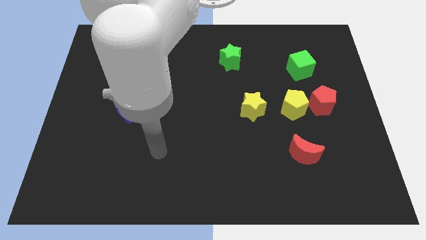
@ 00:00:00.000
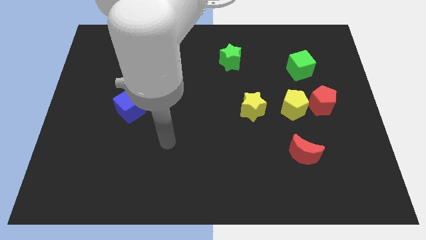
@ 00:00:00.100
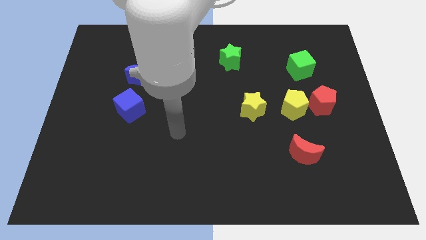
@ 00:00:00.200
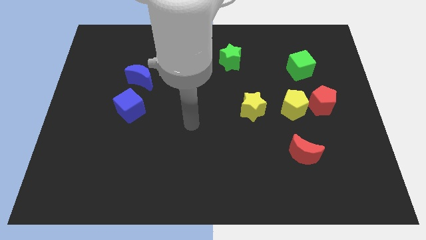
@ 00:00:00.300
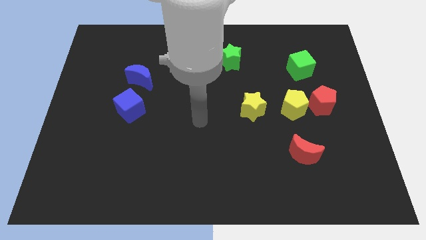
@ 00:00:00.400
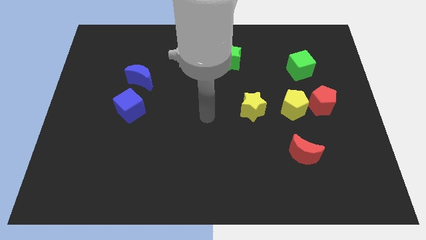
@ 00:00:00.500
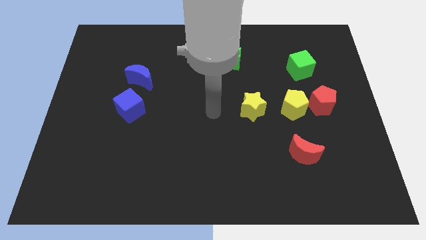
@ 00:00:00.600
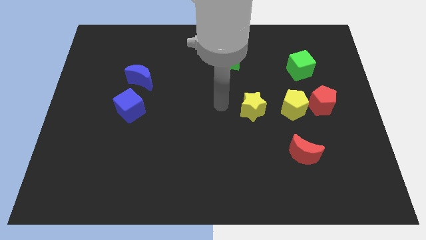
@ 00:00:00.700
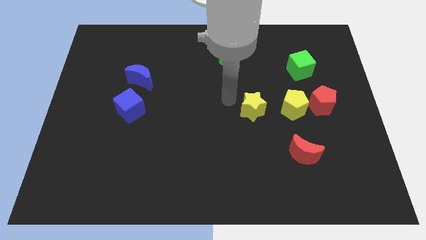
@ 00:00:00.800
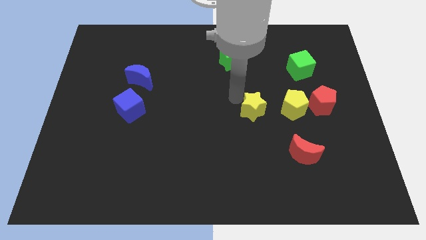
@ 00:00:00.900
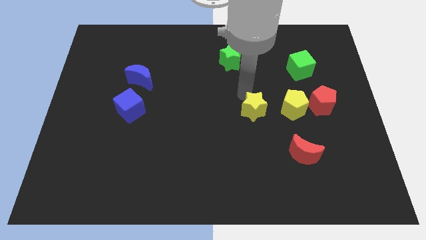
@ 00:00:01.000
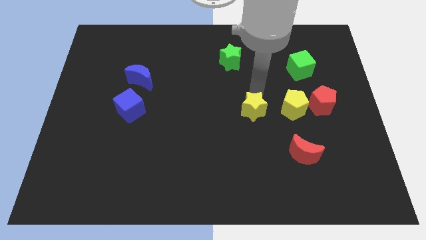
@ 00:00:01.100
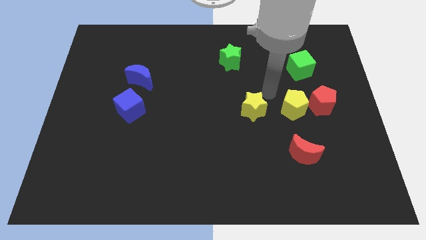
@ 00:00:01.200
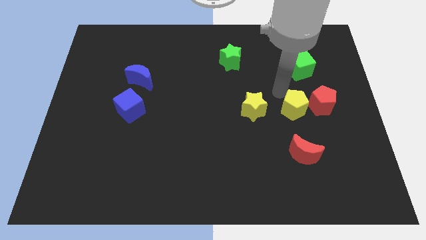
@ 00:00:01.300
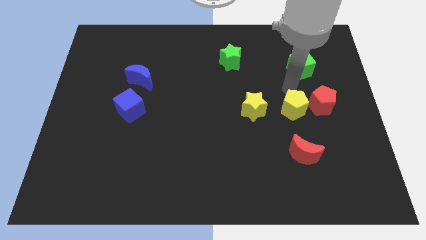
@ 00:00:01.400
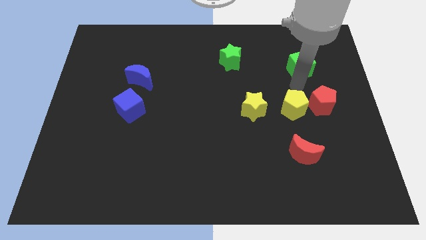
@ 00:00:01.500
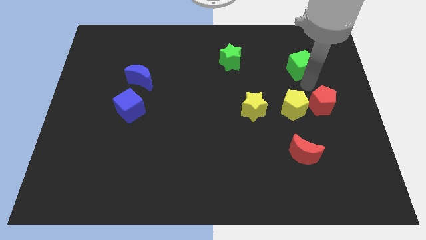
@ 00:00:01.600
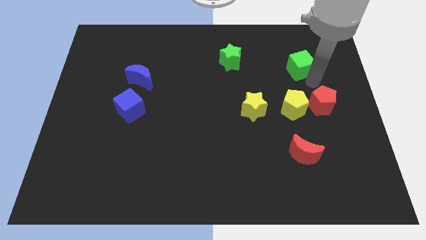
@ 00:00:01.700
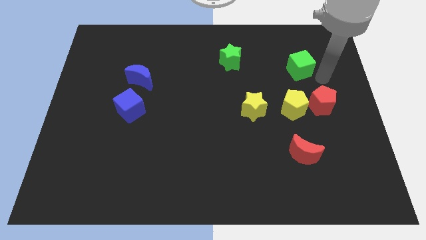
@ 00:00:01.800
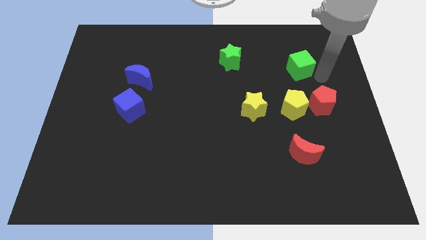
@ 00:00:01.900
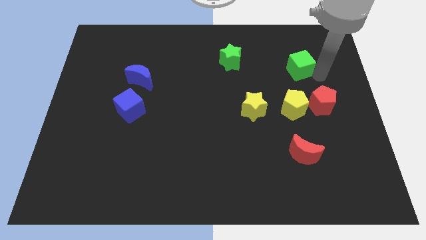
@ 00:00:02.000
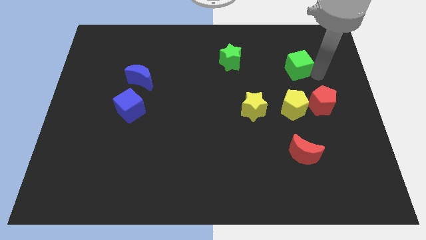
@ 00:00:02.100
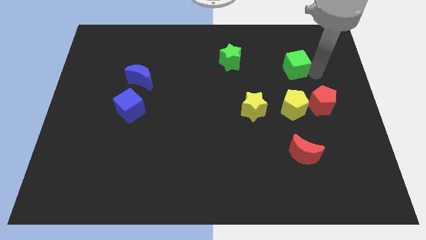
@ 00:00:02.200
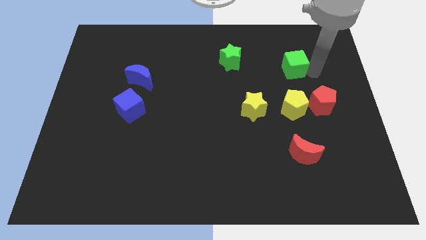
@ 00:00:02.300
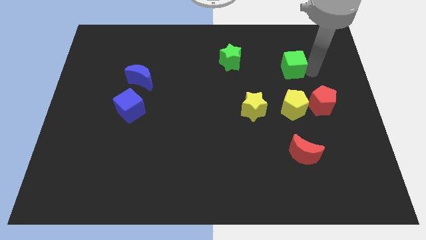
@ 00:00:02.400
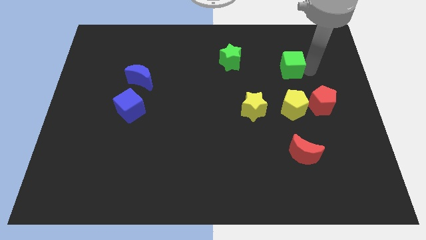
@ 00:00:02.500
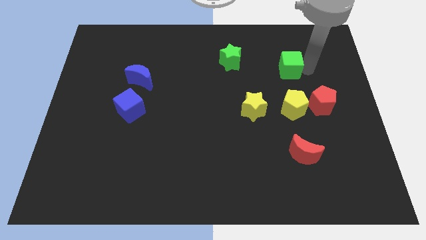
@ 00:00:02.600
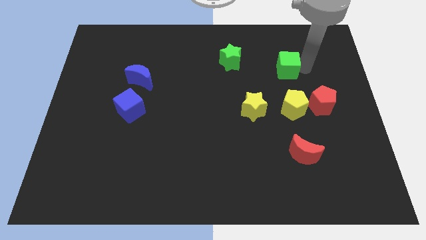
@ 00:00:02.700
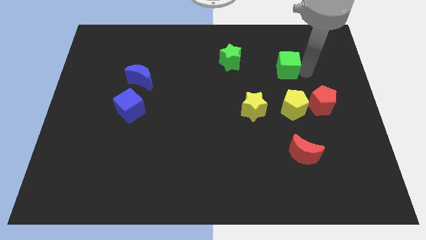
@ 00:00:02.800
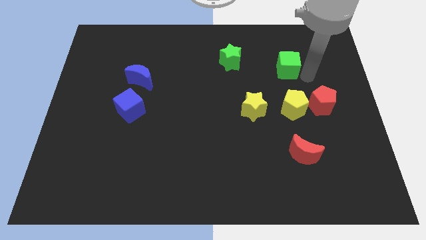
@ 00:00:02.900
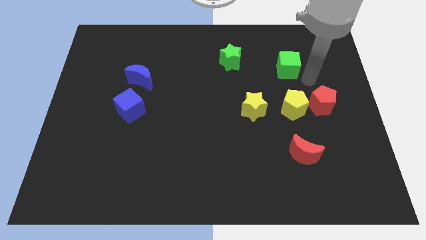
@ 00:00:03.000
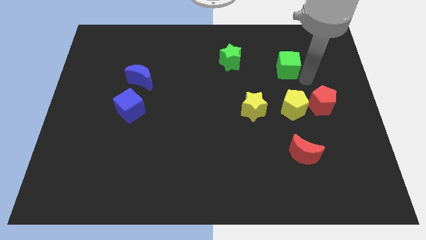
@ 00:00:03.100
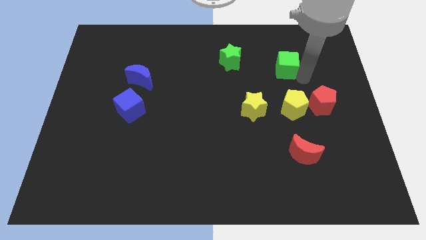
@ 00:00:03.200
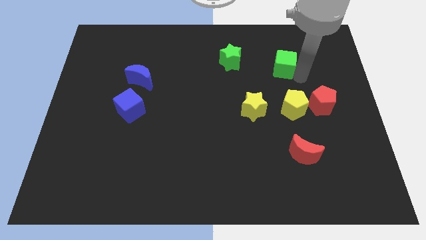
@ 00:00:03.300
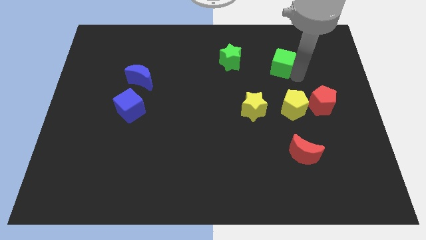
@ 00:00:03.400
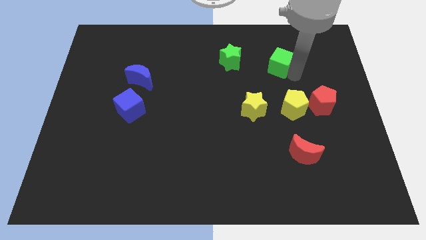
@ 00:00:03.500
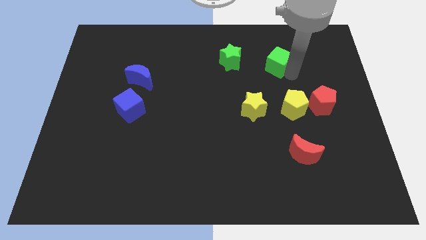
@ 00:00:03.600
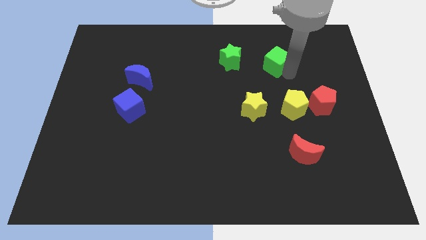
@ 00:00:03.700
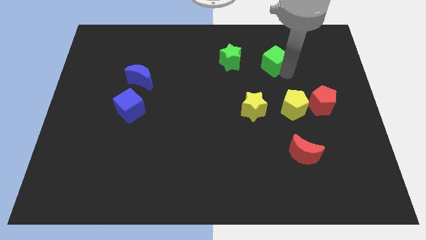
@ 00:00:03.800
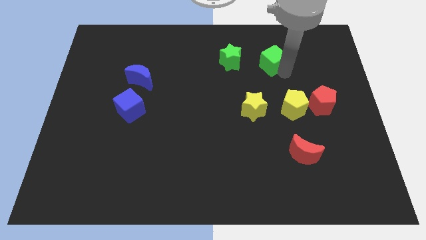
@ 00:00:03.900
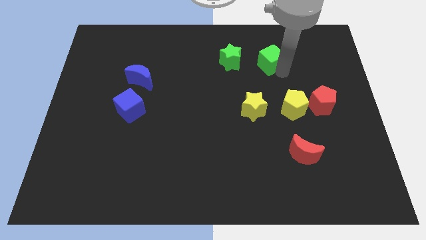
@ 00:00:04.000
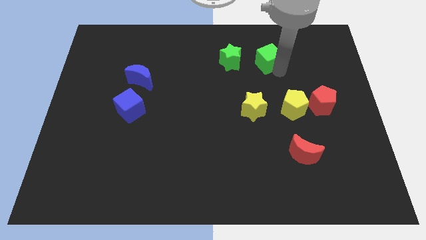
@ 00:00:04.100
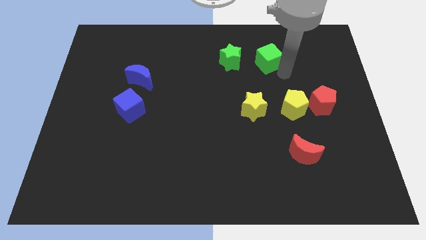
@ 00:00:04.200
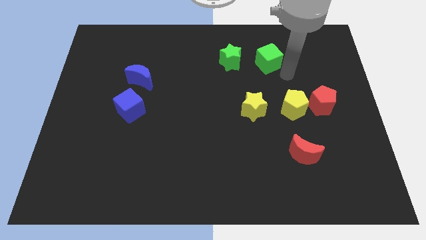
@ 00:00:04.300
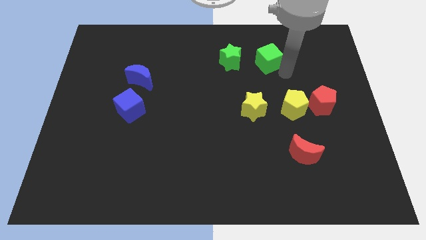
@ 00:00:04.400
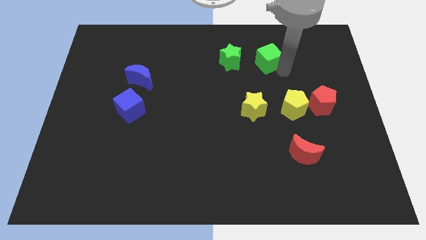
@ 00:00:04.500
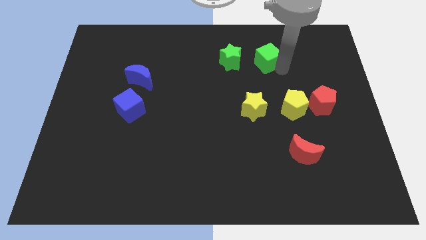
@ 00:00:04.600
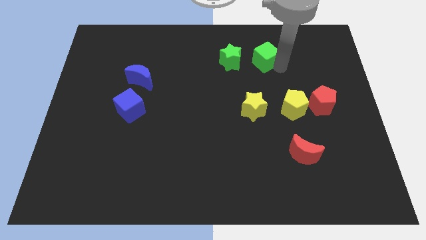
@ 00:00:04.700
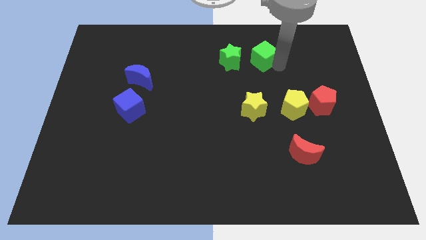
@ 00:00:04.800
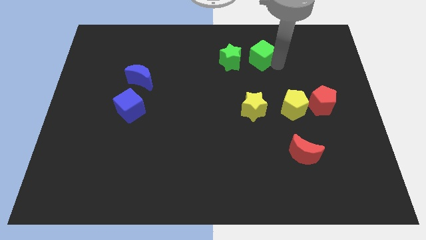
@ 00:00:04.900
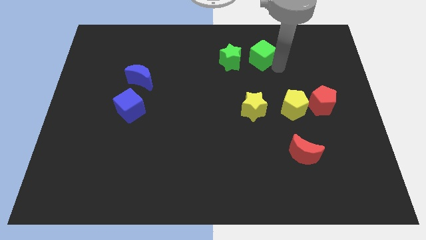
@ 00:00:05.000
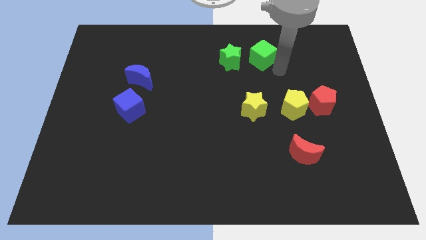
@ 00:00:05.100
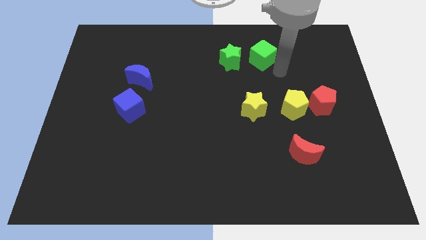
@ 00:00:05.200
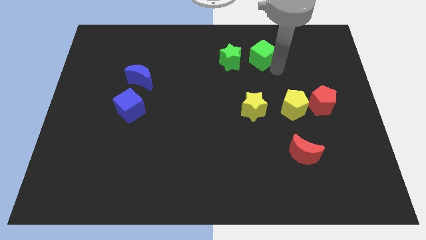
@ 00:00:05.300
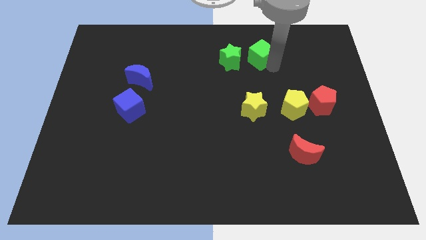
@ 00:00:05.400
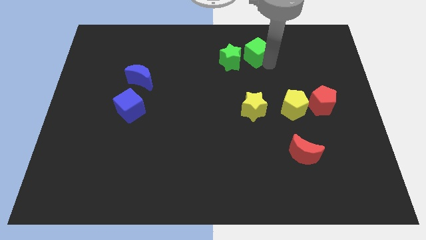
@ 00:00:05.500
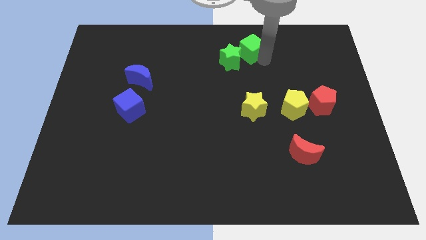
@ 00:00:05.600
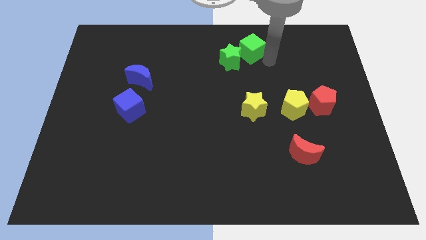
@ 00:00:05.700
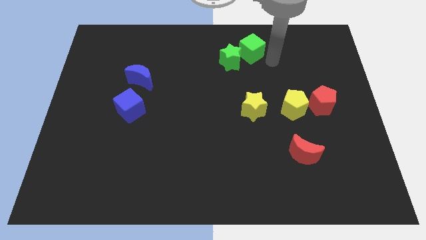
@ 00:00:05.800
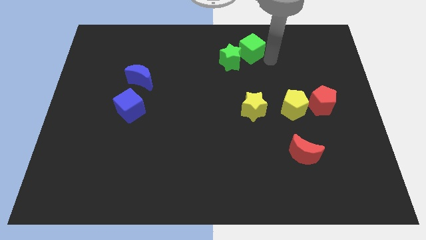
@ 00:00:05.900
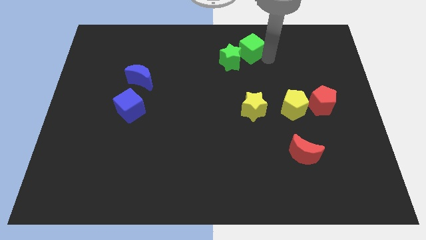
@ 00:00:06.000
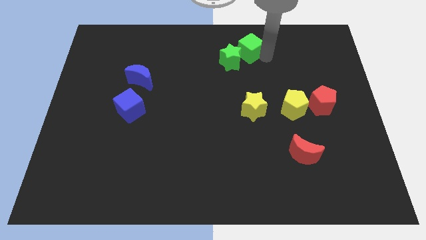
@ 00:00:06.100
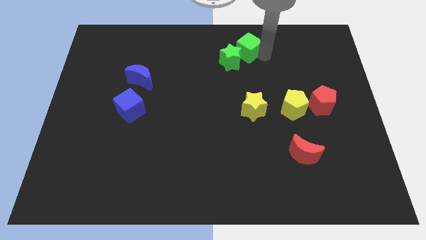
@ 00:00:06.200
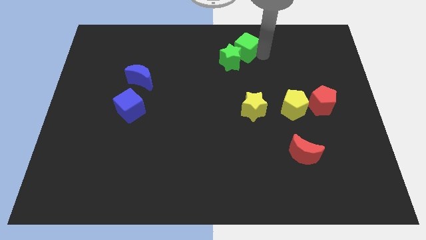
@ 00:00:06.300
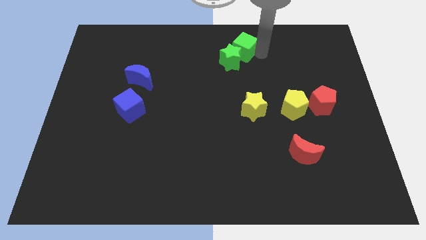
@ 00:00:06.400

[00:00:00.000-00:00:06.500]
push the green cube to the towards your base
